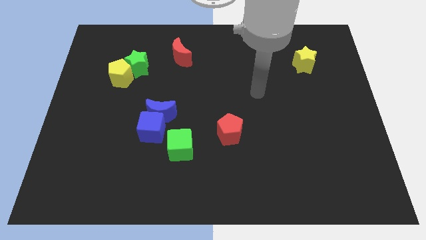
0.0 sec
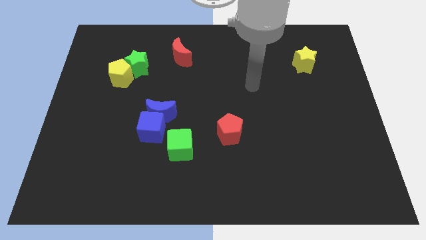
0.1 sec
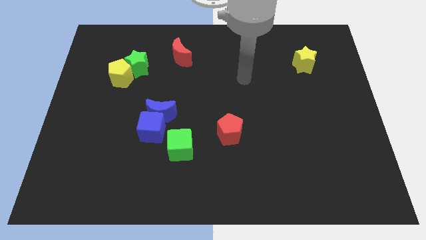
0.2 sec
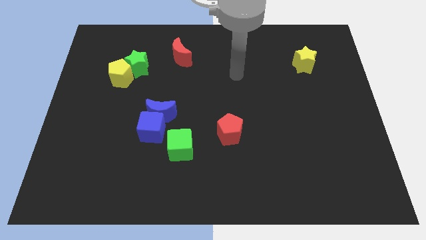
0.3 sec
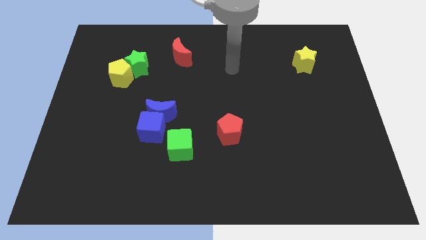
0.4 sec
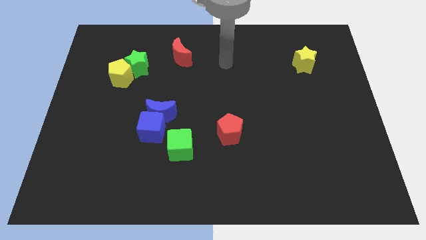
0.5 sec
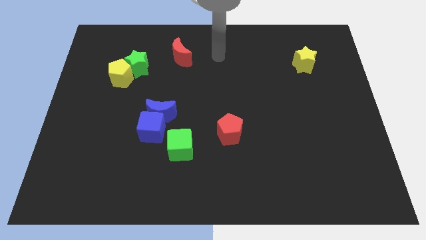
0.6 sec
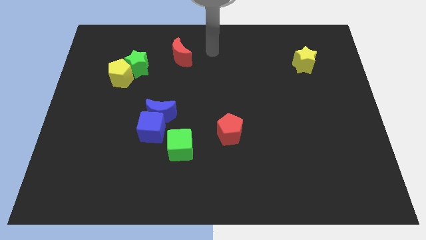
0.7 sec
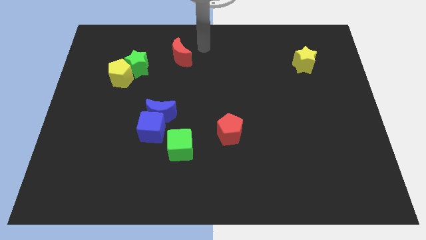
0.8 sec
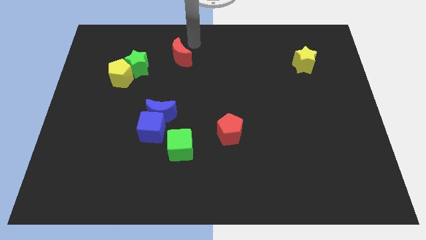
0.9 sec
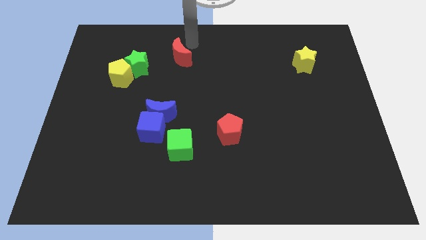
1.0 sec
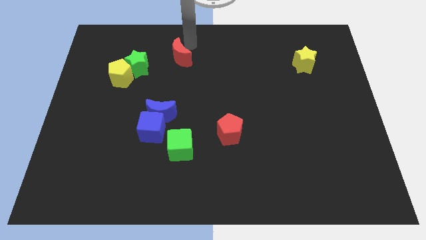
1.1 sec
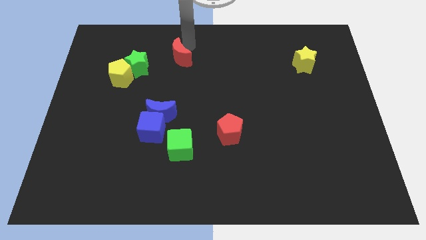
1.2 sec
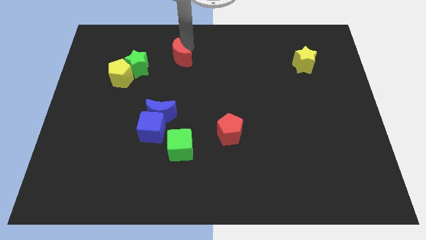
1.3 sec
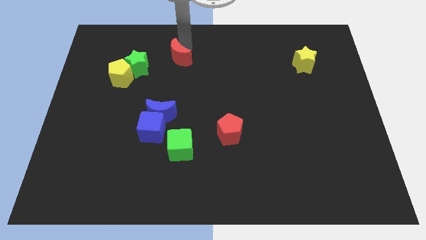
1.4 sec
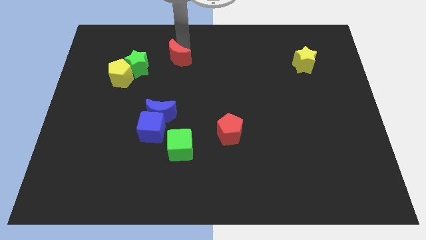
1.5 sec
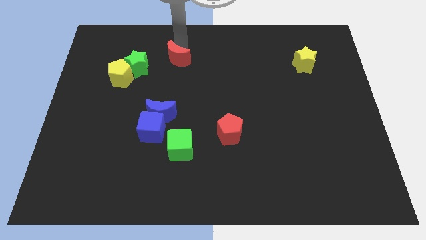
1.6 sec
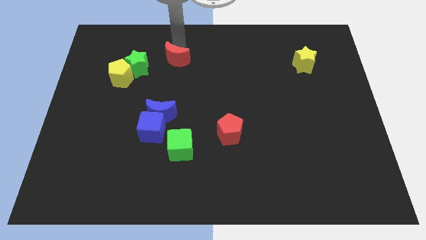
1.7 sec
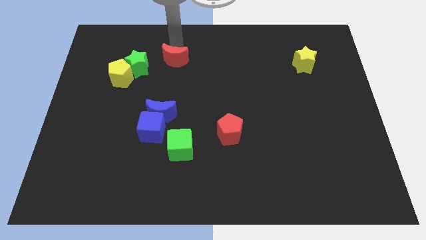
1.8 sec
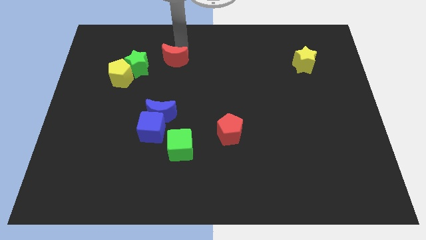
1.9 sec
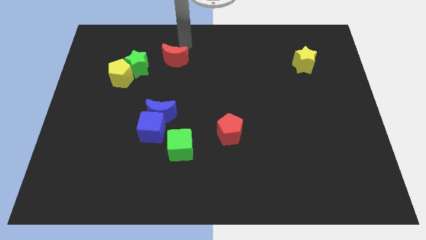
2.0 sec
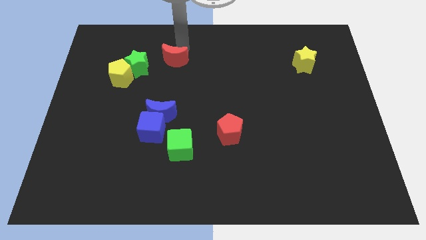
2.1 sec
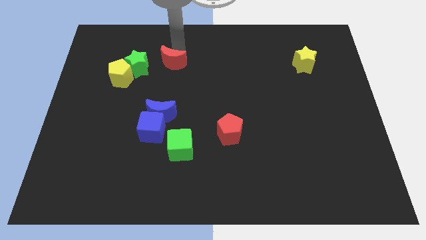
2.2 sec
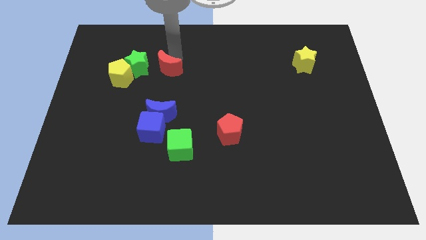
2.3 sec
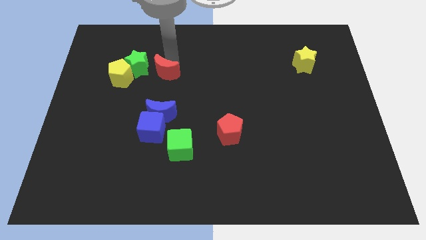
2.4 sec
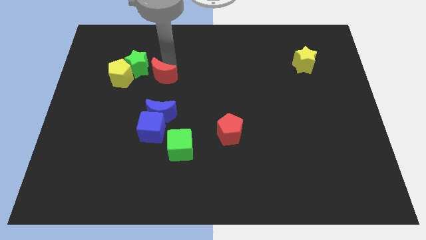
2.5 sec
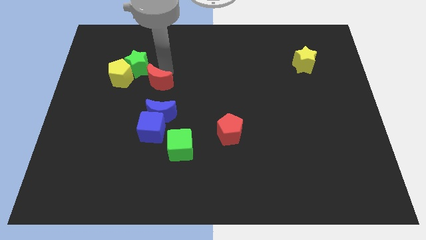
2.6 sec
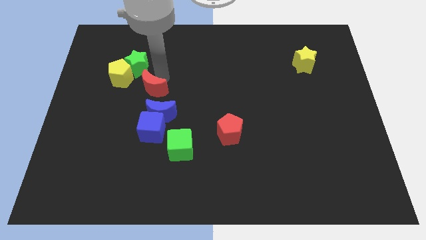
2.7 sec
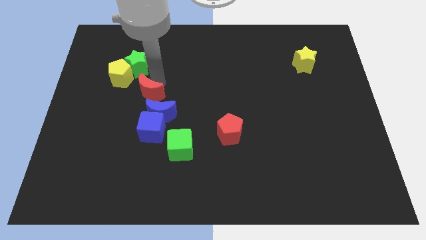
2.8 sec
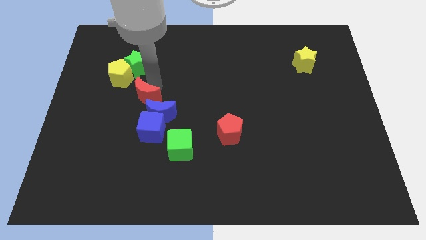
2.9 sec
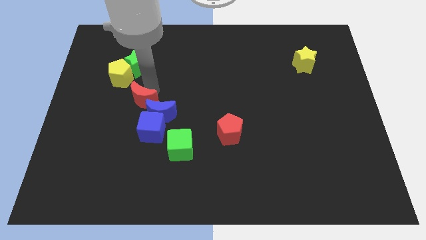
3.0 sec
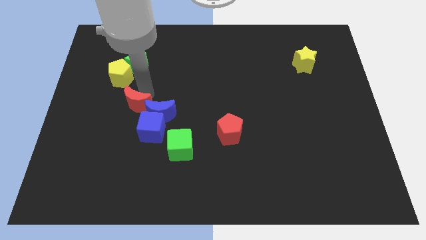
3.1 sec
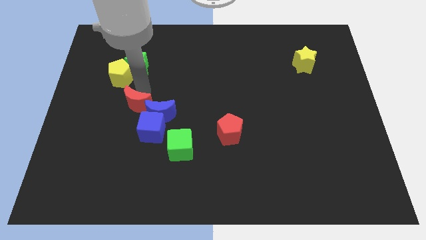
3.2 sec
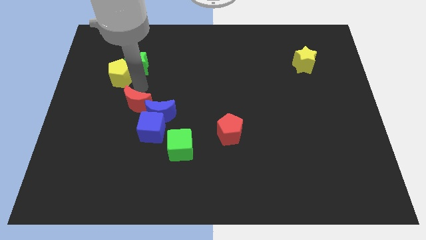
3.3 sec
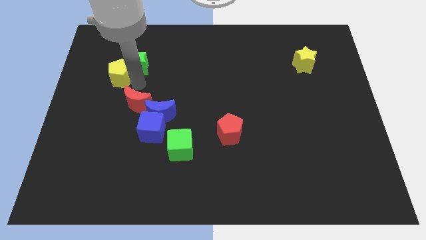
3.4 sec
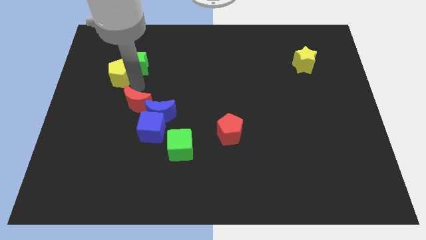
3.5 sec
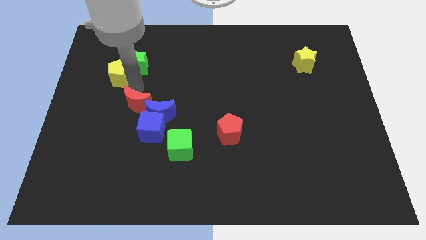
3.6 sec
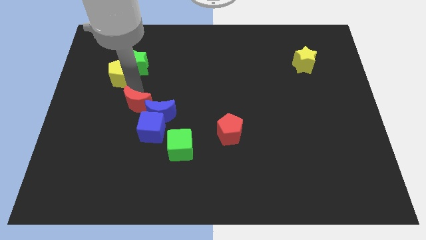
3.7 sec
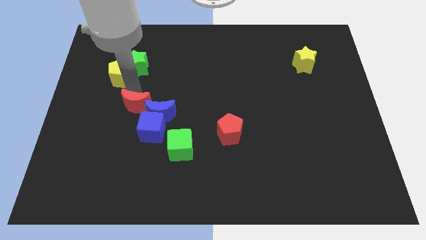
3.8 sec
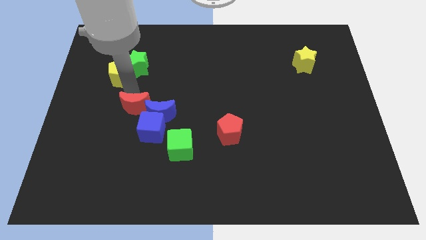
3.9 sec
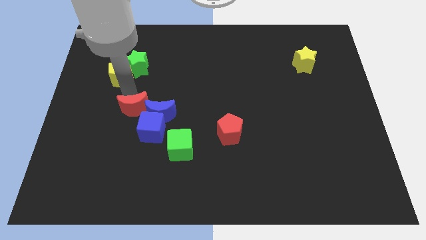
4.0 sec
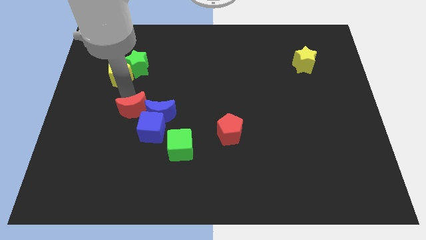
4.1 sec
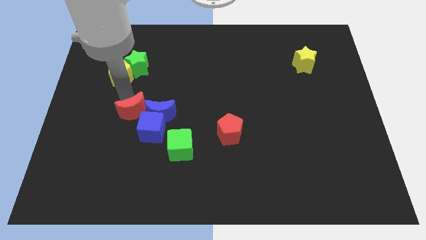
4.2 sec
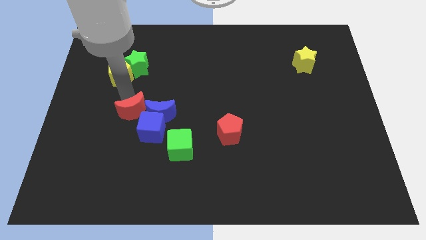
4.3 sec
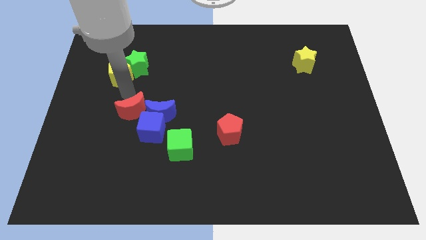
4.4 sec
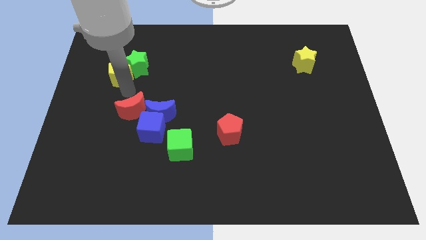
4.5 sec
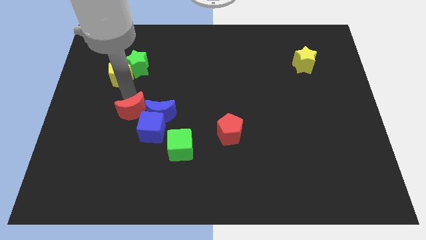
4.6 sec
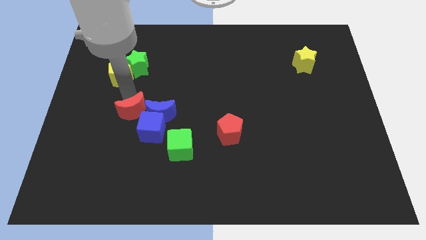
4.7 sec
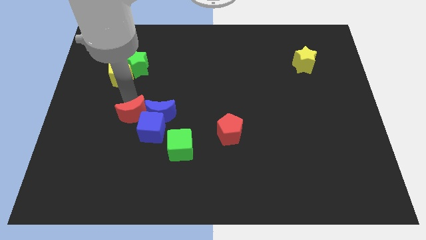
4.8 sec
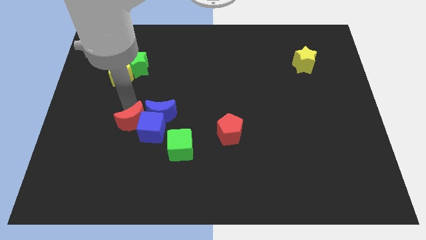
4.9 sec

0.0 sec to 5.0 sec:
put the red moon close to the blue cube

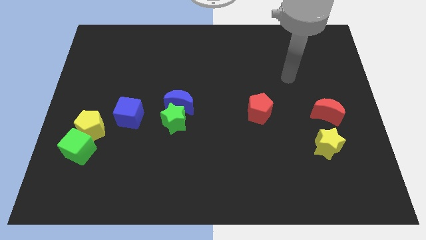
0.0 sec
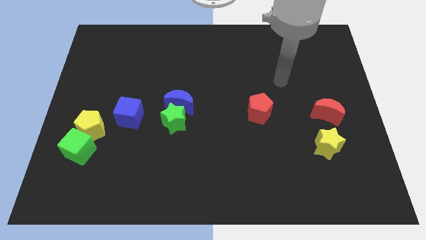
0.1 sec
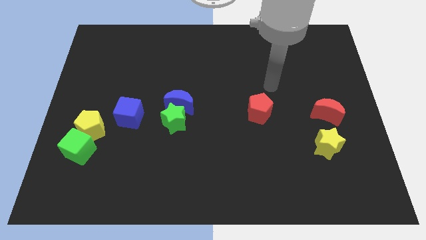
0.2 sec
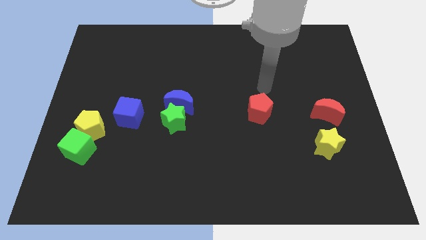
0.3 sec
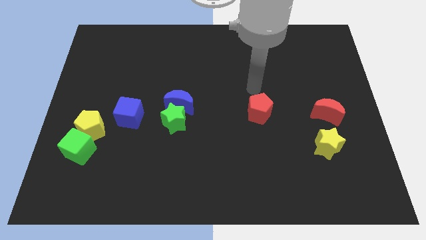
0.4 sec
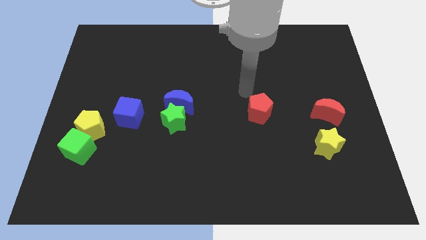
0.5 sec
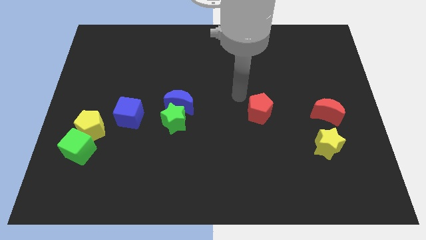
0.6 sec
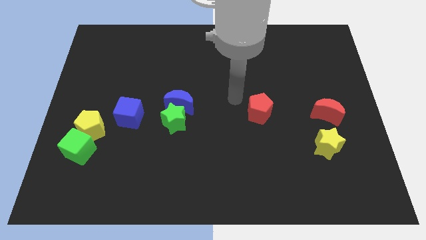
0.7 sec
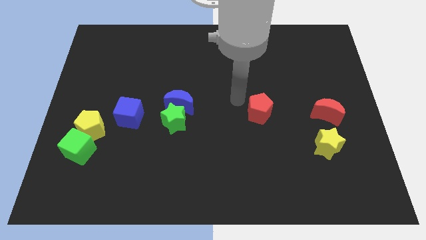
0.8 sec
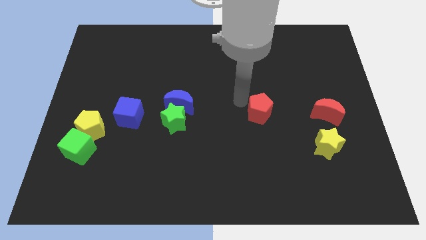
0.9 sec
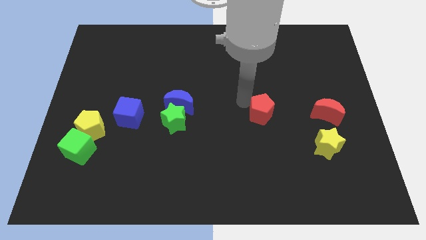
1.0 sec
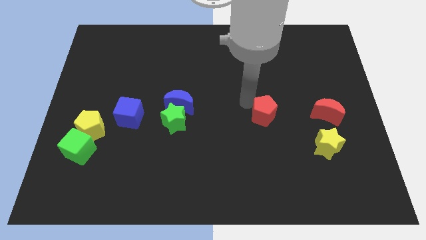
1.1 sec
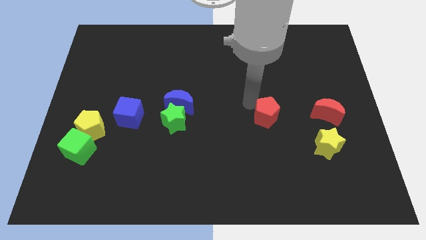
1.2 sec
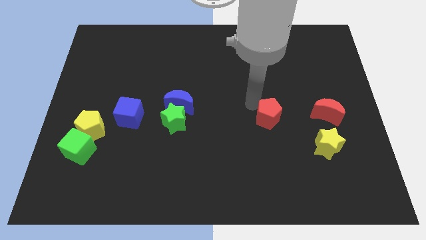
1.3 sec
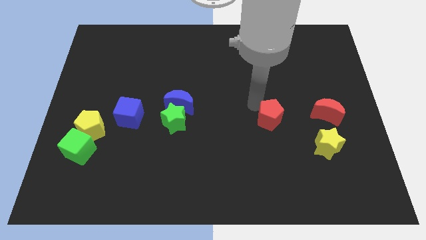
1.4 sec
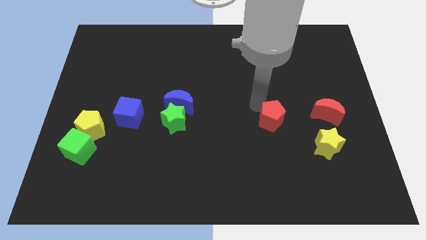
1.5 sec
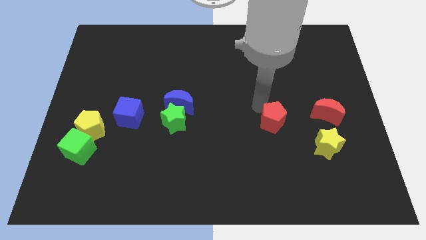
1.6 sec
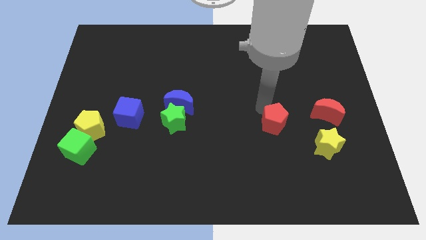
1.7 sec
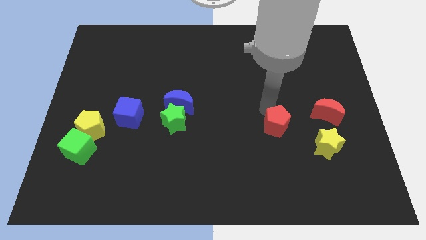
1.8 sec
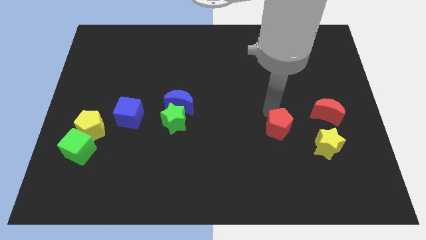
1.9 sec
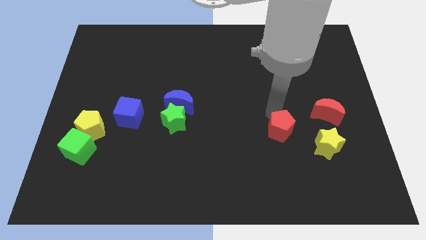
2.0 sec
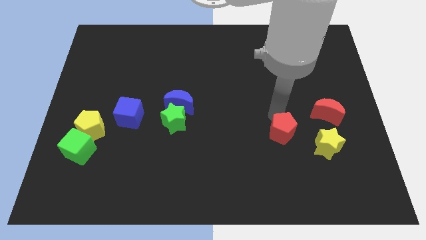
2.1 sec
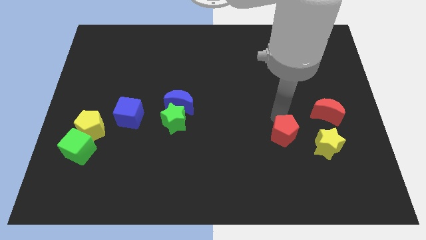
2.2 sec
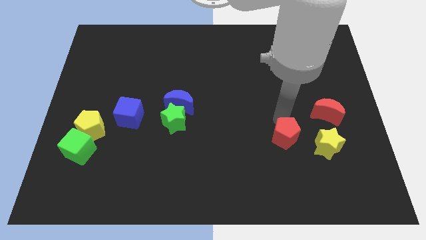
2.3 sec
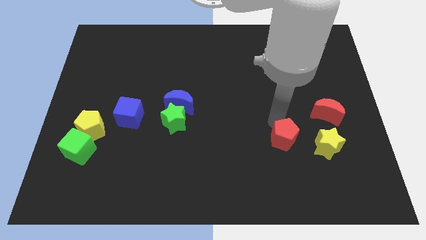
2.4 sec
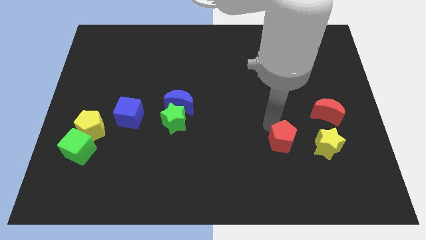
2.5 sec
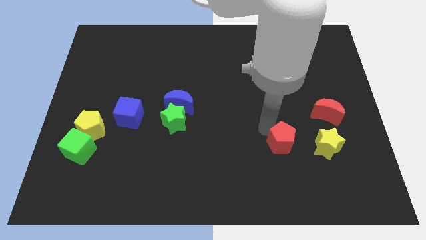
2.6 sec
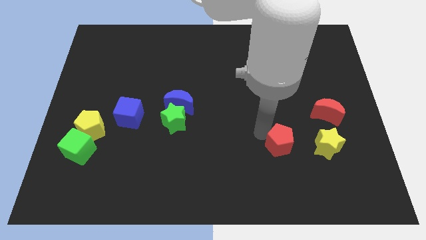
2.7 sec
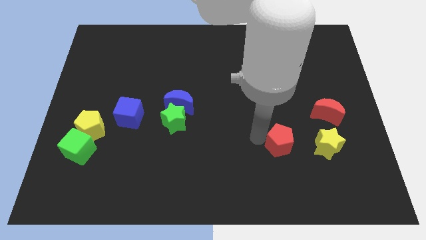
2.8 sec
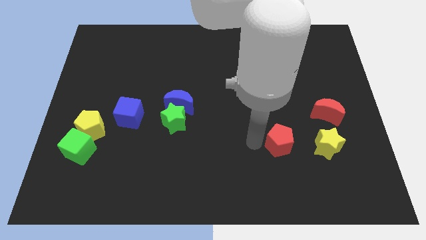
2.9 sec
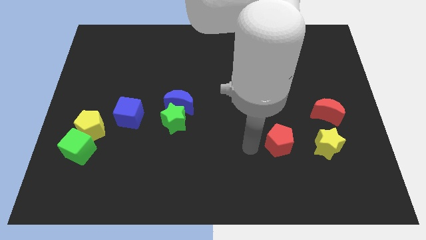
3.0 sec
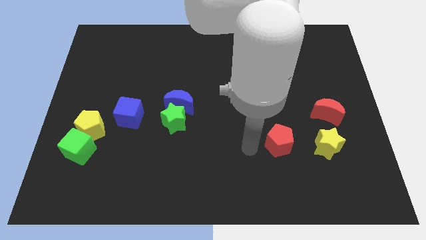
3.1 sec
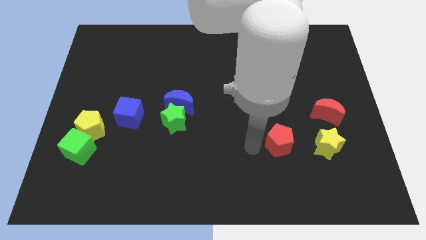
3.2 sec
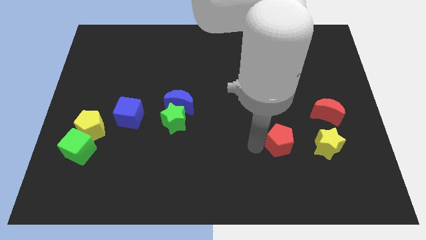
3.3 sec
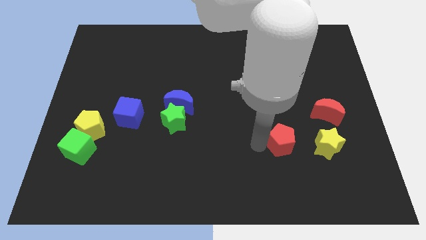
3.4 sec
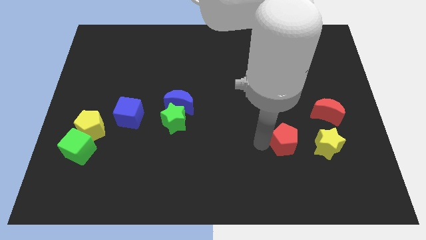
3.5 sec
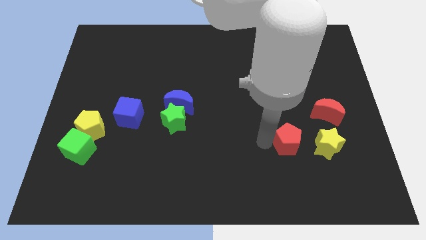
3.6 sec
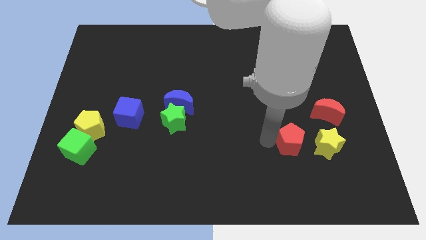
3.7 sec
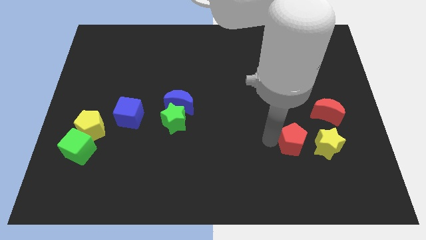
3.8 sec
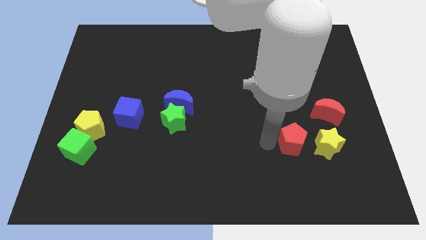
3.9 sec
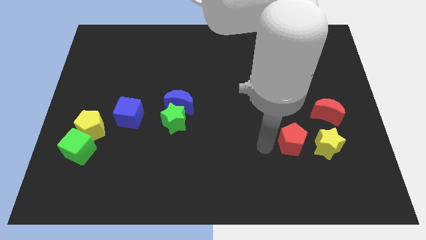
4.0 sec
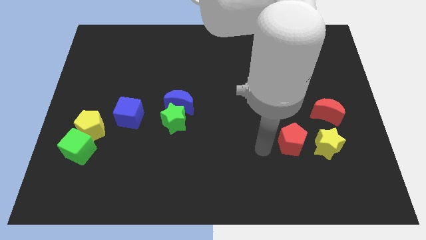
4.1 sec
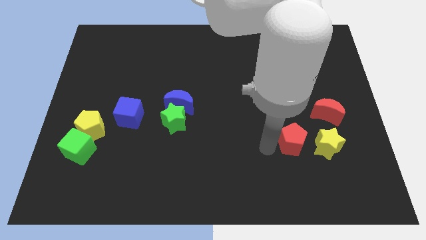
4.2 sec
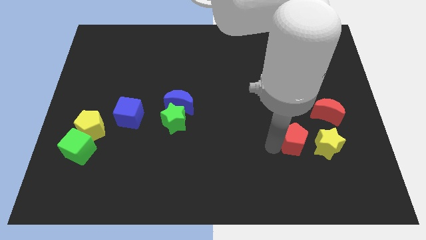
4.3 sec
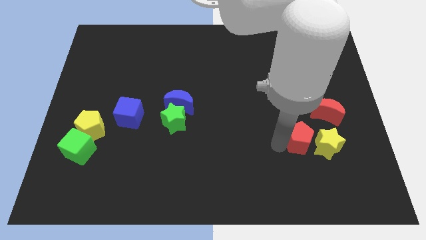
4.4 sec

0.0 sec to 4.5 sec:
push the red pentagon towards the yellow star
